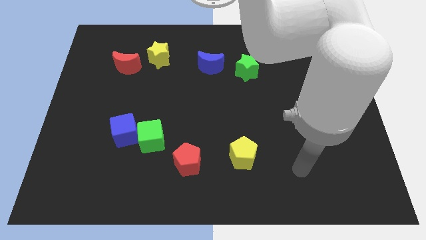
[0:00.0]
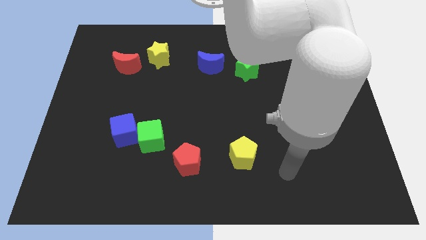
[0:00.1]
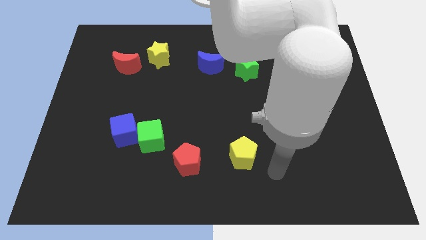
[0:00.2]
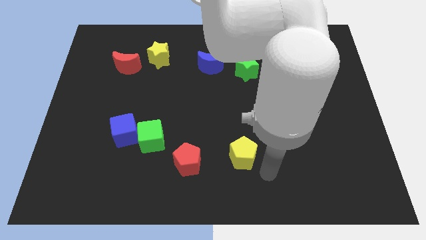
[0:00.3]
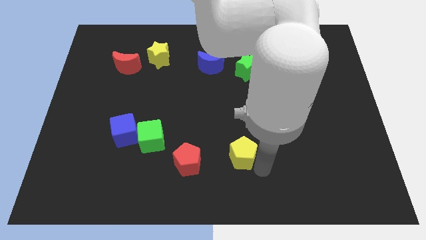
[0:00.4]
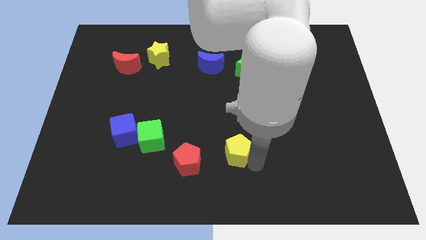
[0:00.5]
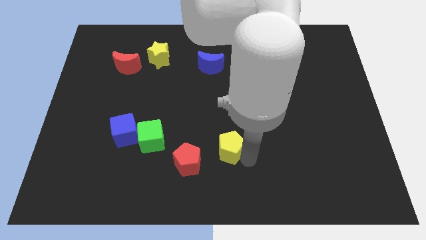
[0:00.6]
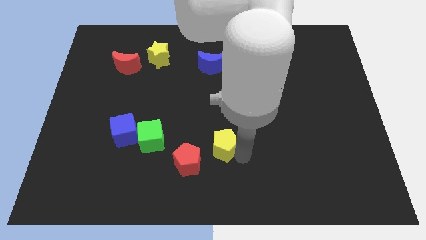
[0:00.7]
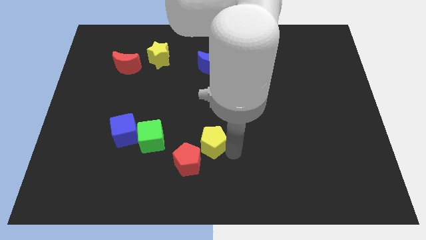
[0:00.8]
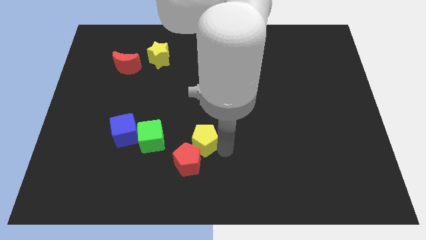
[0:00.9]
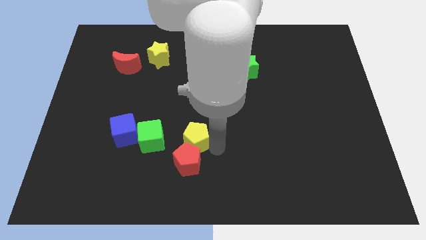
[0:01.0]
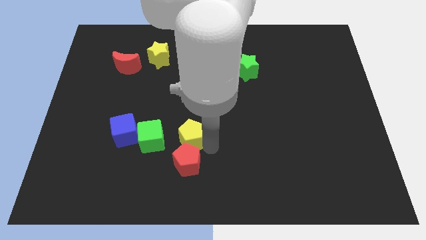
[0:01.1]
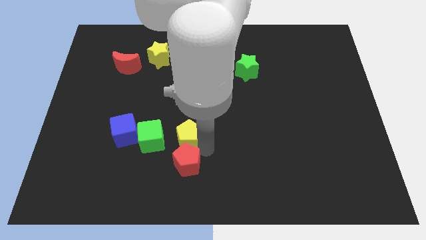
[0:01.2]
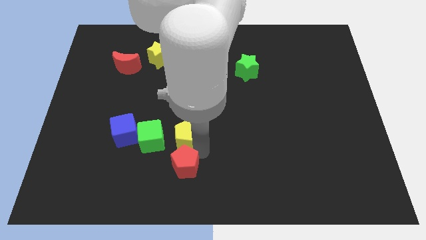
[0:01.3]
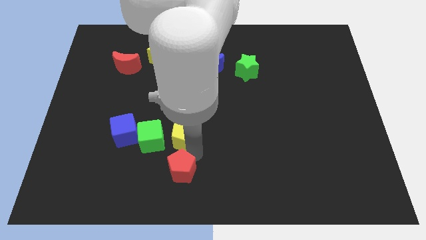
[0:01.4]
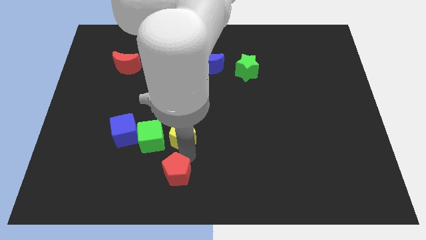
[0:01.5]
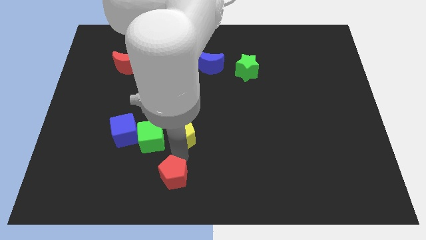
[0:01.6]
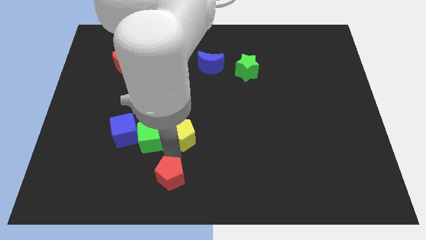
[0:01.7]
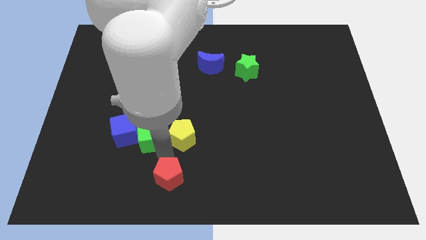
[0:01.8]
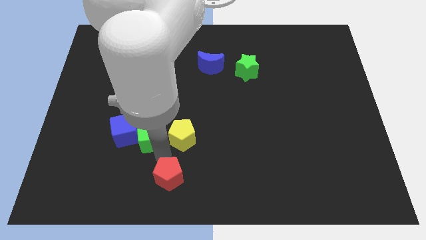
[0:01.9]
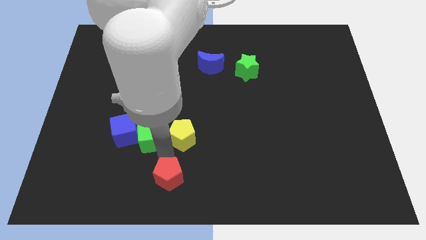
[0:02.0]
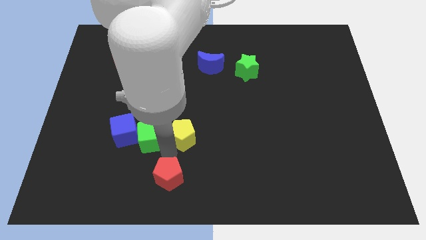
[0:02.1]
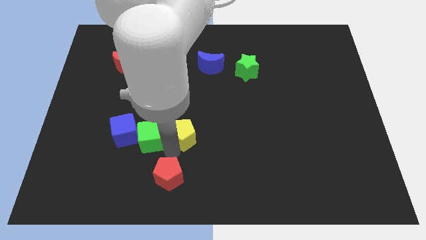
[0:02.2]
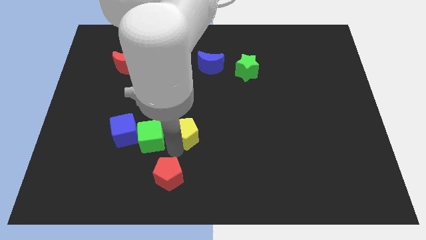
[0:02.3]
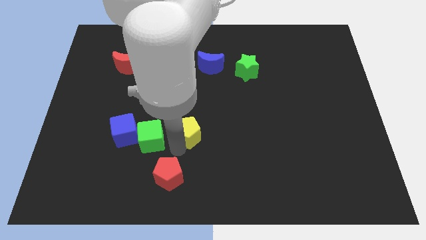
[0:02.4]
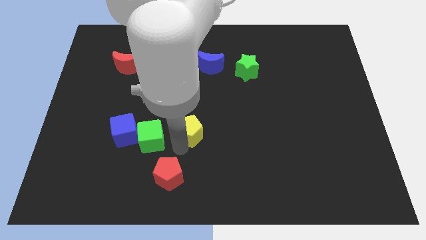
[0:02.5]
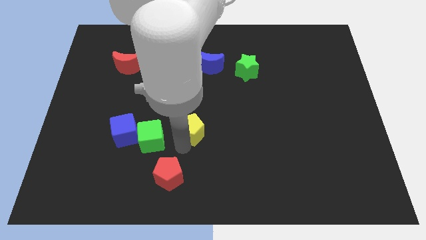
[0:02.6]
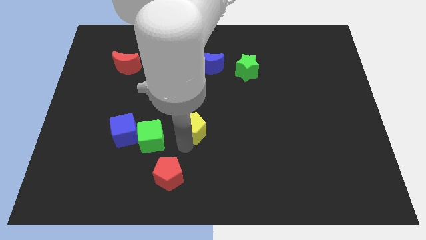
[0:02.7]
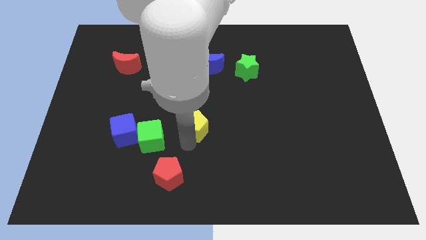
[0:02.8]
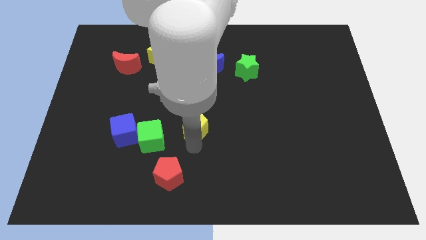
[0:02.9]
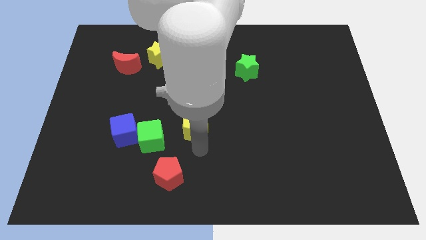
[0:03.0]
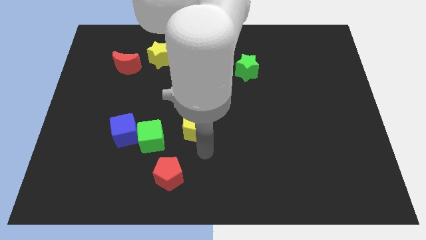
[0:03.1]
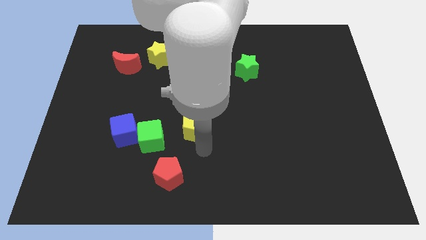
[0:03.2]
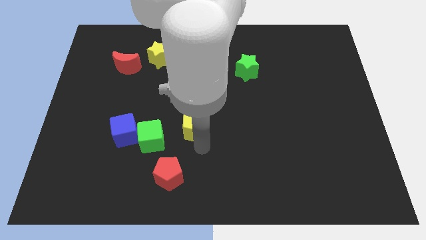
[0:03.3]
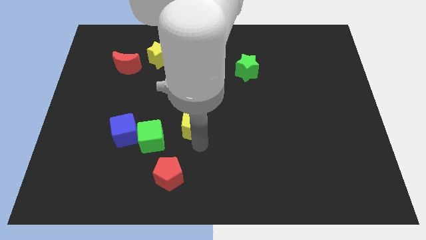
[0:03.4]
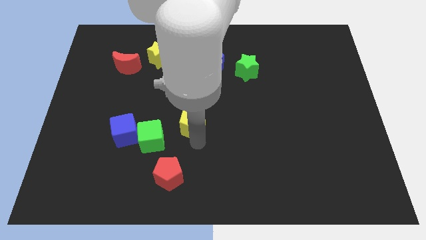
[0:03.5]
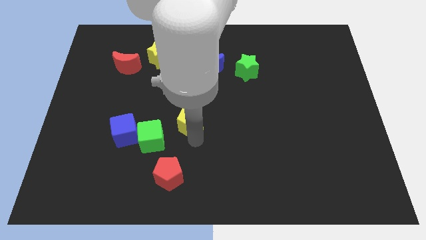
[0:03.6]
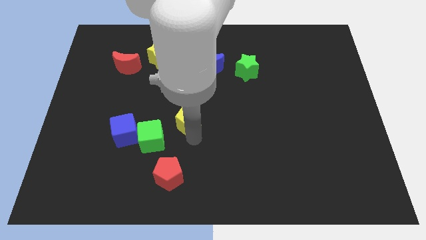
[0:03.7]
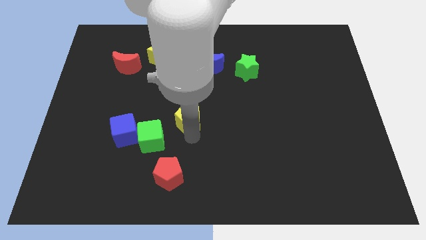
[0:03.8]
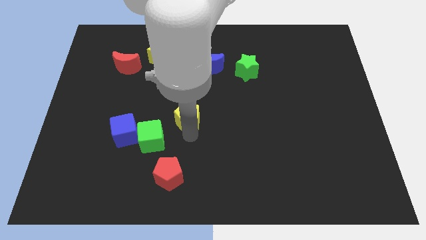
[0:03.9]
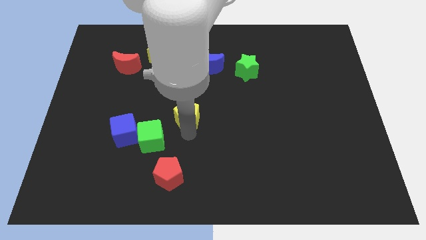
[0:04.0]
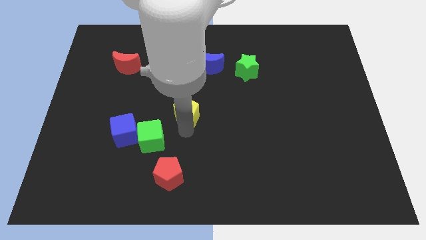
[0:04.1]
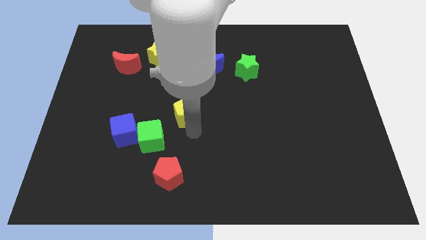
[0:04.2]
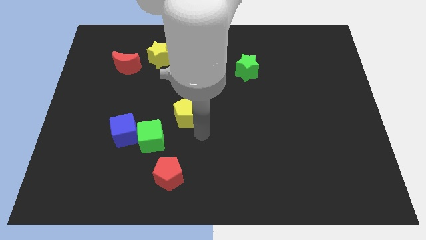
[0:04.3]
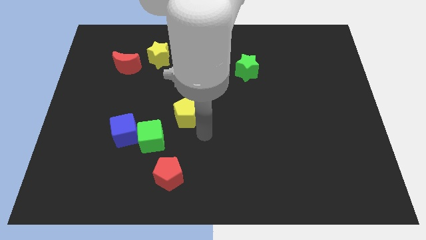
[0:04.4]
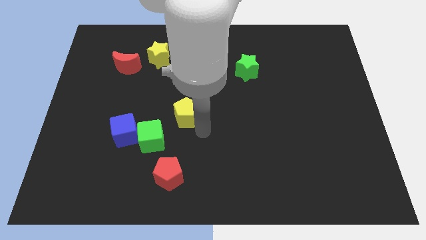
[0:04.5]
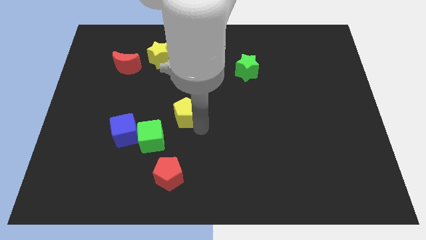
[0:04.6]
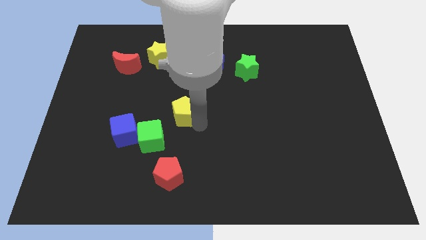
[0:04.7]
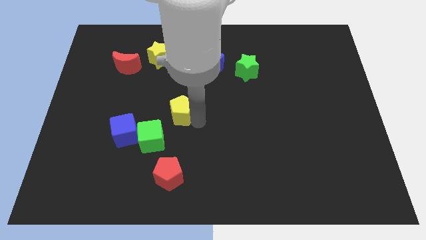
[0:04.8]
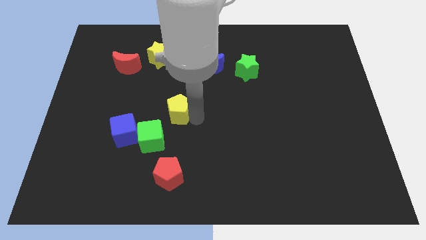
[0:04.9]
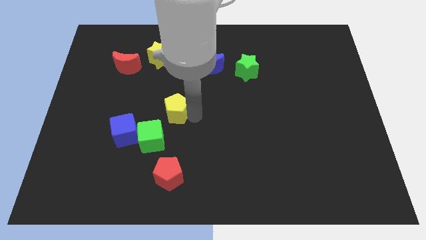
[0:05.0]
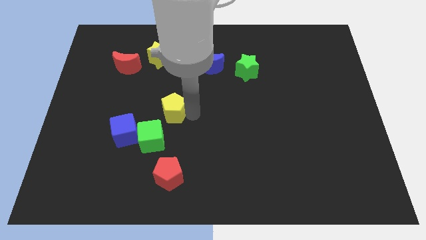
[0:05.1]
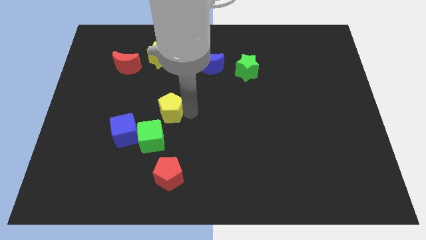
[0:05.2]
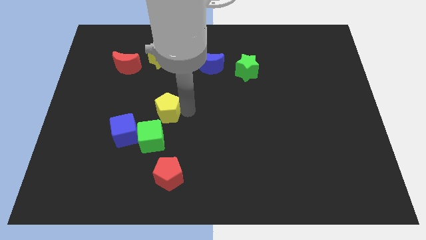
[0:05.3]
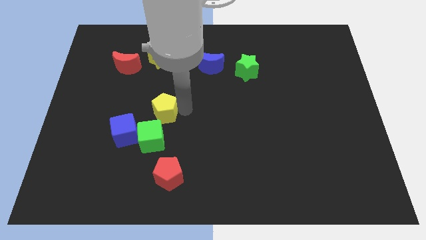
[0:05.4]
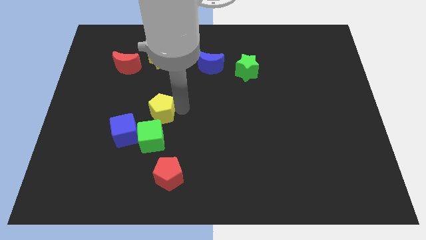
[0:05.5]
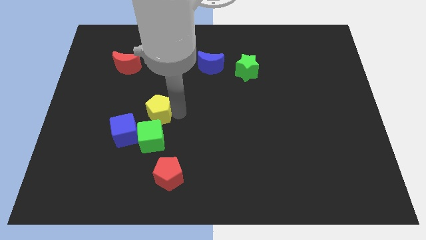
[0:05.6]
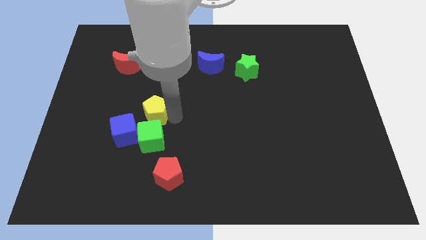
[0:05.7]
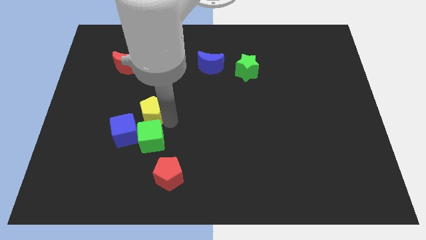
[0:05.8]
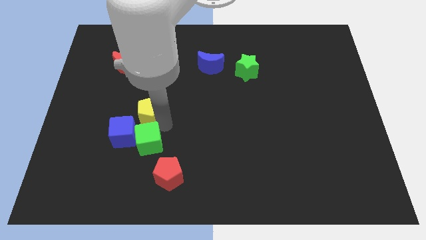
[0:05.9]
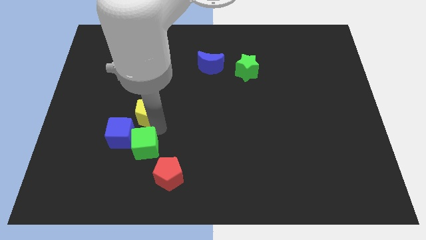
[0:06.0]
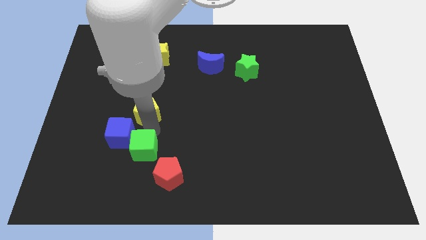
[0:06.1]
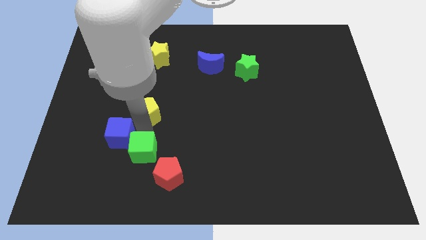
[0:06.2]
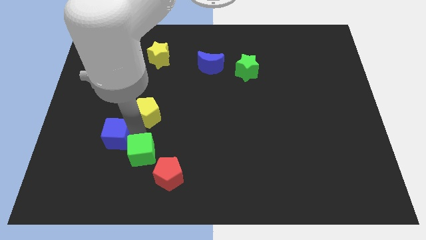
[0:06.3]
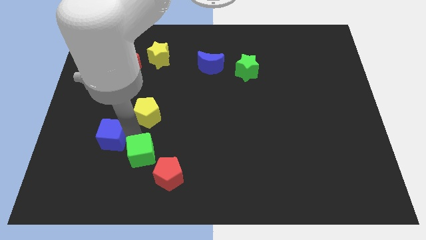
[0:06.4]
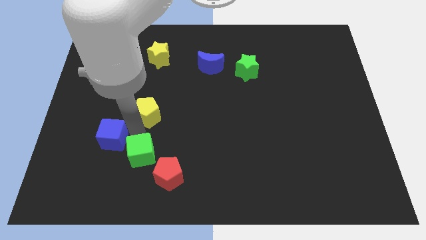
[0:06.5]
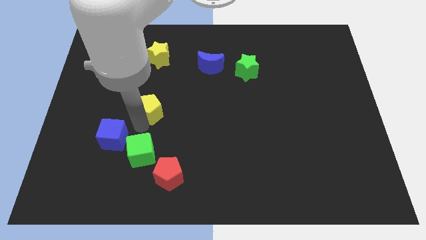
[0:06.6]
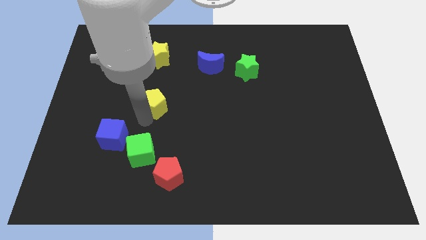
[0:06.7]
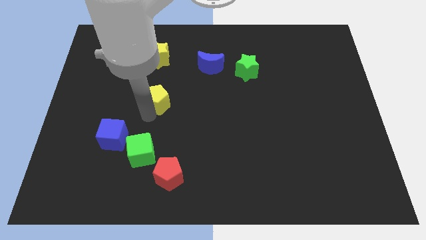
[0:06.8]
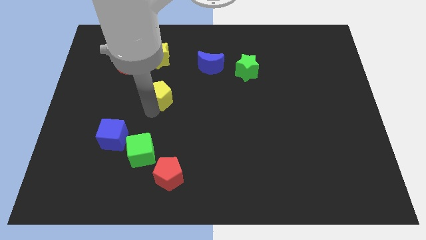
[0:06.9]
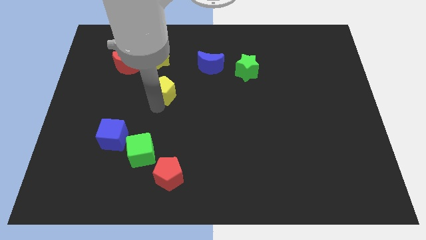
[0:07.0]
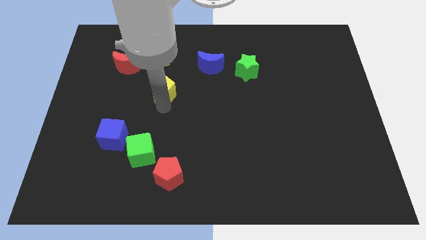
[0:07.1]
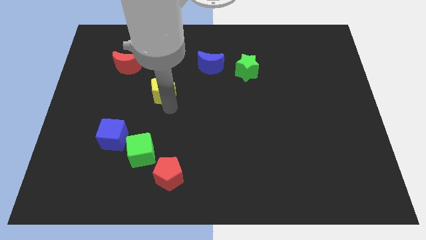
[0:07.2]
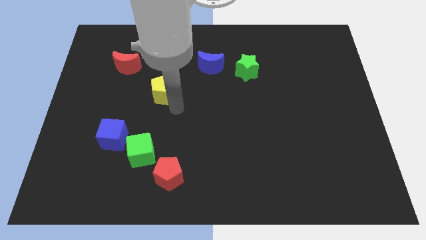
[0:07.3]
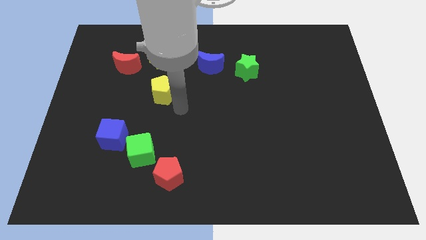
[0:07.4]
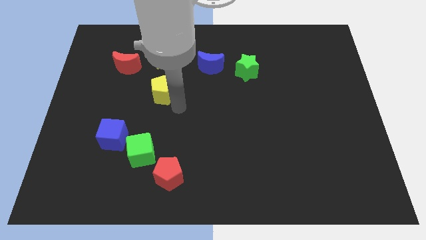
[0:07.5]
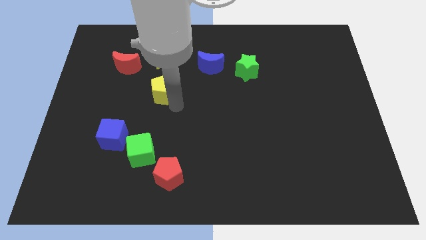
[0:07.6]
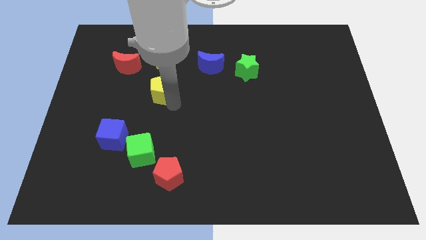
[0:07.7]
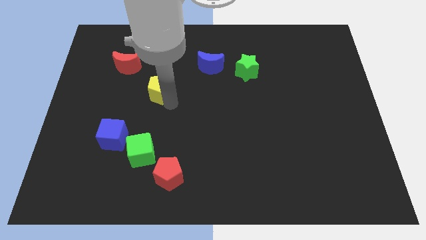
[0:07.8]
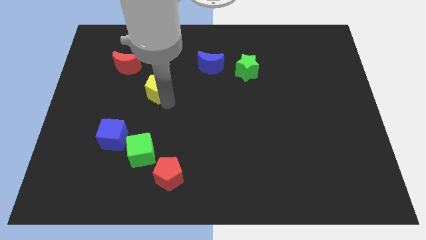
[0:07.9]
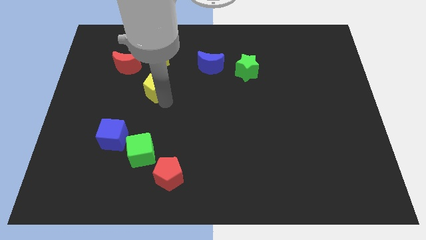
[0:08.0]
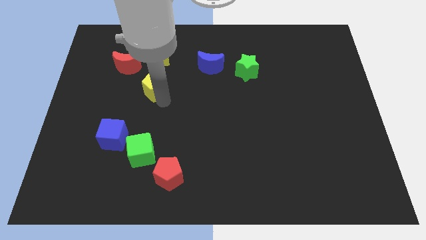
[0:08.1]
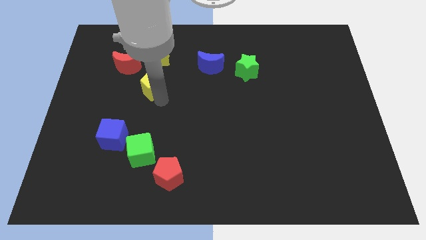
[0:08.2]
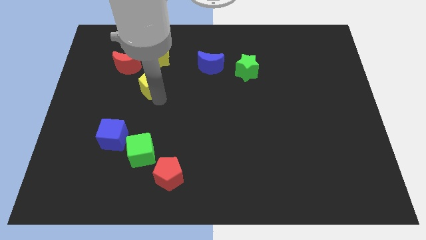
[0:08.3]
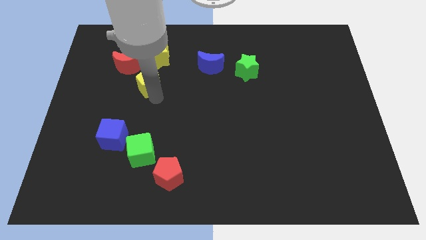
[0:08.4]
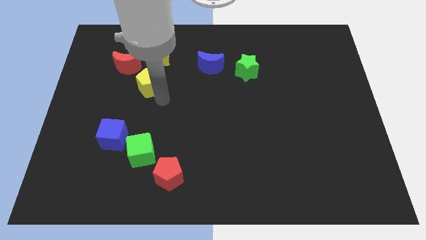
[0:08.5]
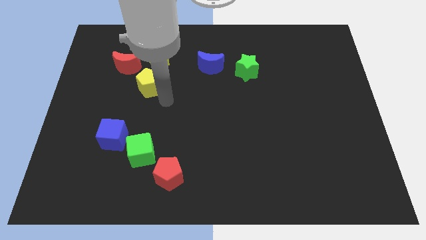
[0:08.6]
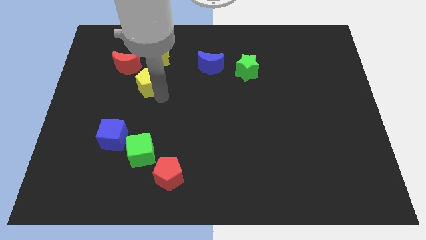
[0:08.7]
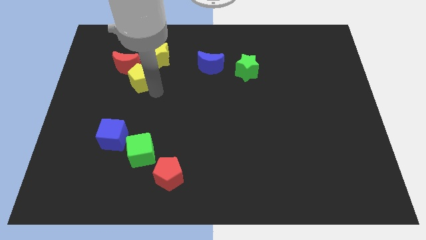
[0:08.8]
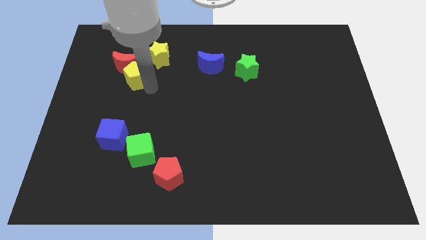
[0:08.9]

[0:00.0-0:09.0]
put the yellow pentagon to the red moon
